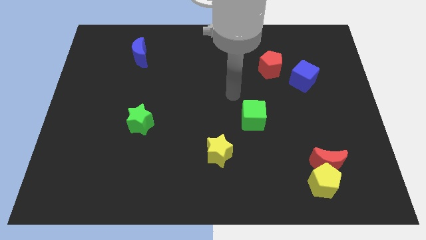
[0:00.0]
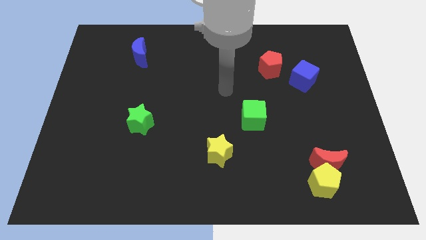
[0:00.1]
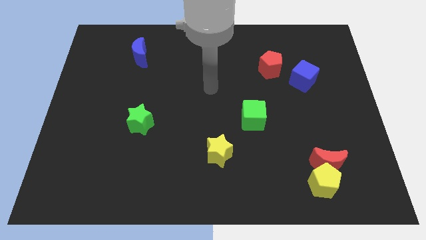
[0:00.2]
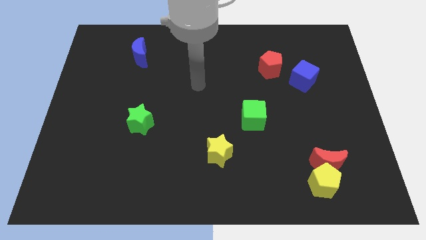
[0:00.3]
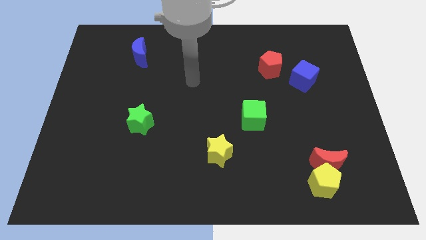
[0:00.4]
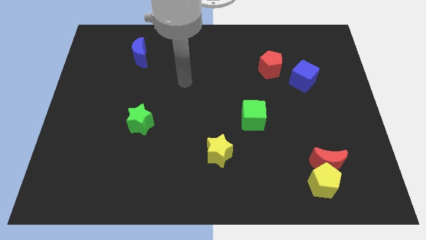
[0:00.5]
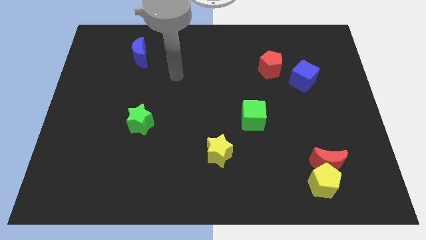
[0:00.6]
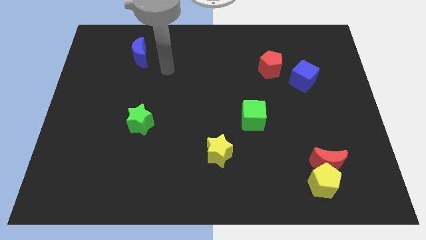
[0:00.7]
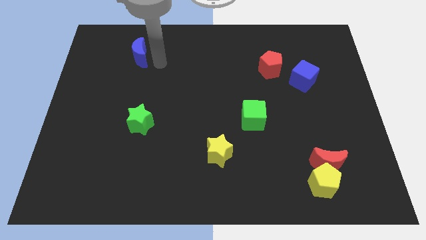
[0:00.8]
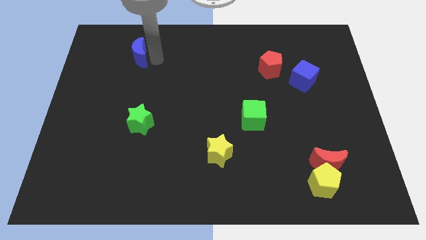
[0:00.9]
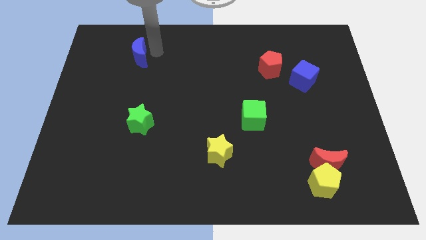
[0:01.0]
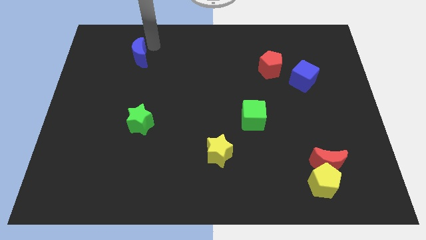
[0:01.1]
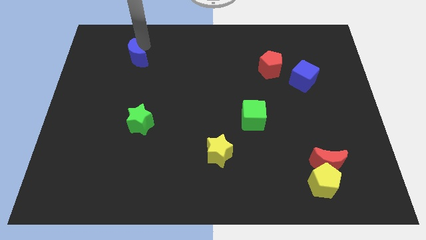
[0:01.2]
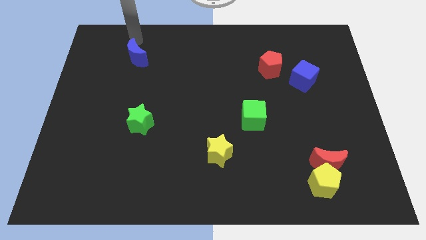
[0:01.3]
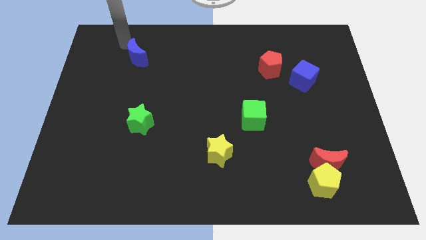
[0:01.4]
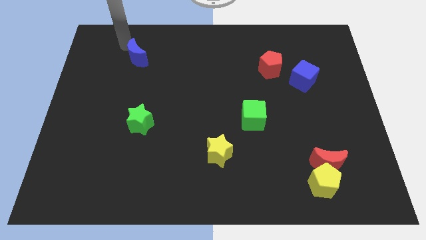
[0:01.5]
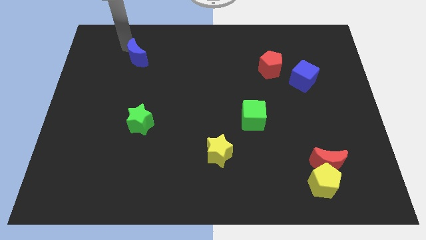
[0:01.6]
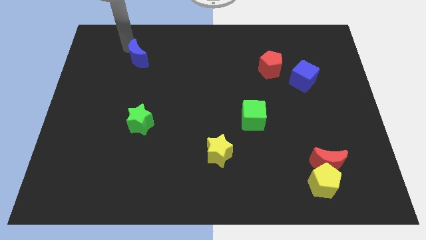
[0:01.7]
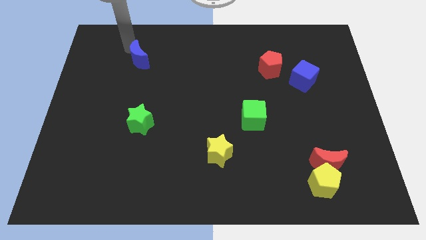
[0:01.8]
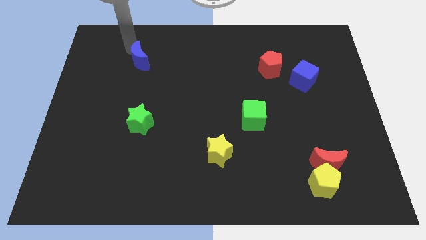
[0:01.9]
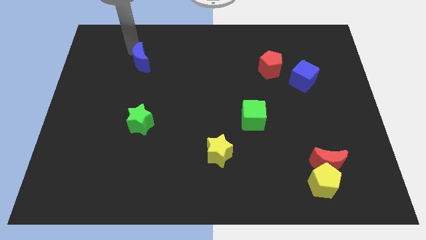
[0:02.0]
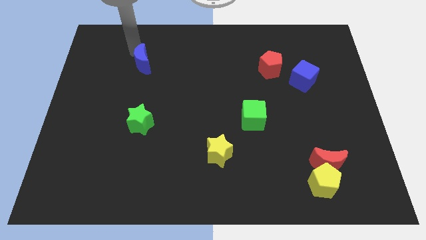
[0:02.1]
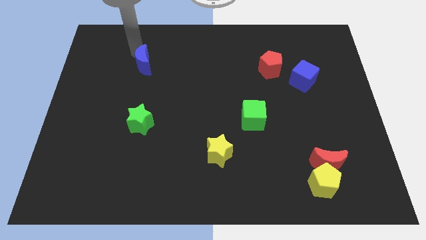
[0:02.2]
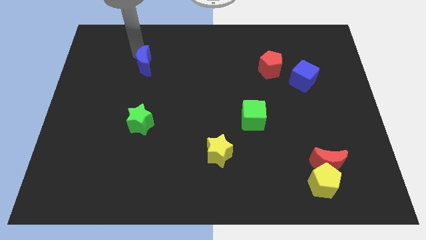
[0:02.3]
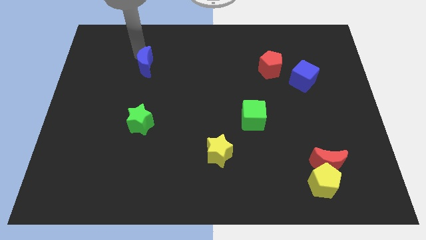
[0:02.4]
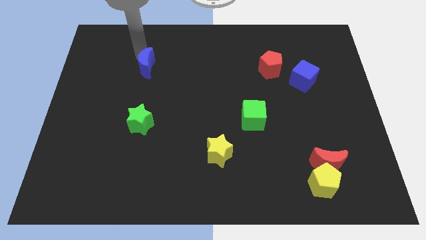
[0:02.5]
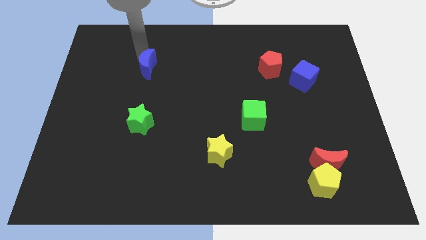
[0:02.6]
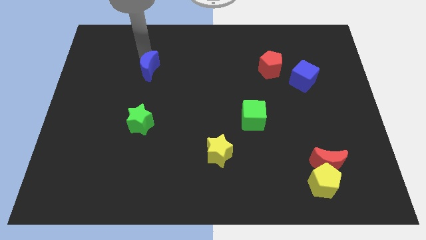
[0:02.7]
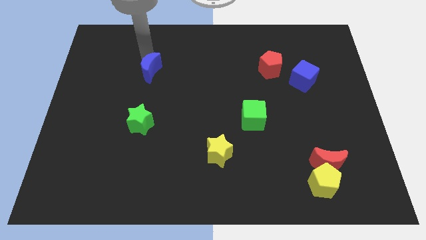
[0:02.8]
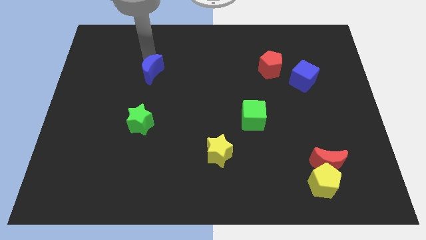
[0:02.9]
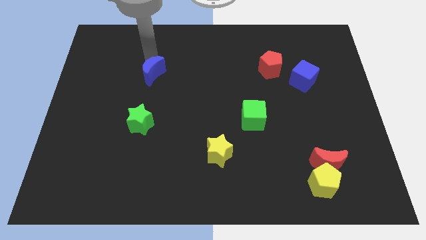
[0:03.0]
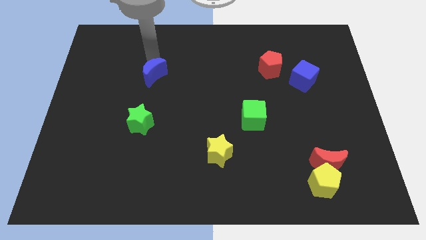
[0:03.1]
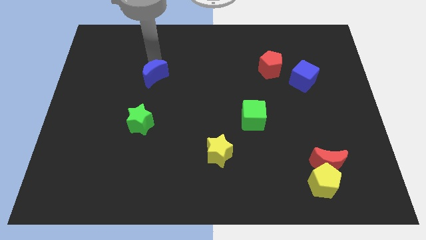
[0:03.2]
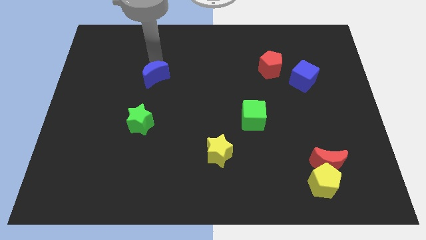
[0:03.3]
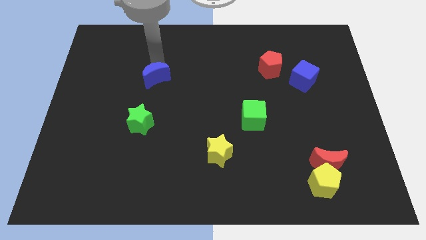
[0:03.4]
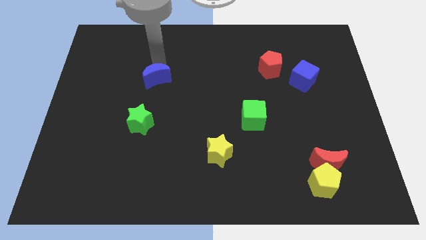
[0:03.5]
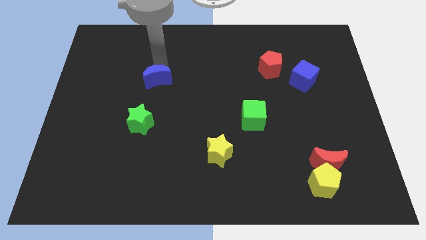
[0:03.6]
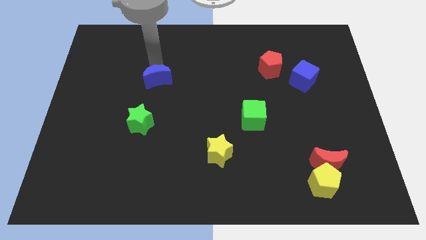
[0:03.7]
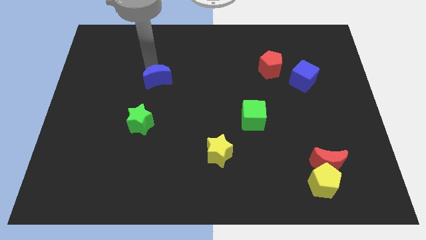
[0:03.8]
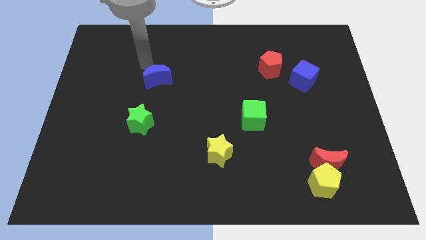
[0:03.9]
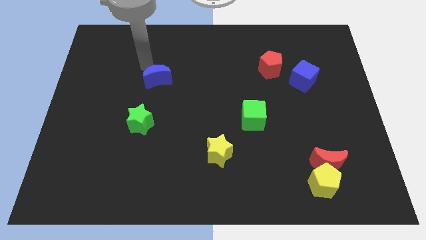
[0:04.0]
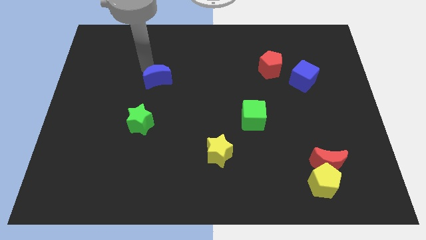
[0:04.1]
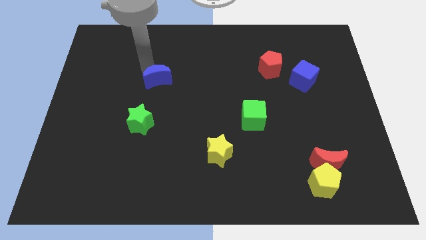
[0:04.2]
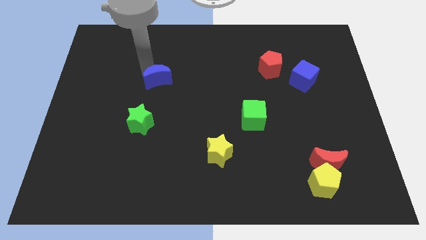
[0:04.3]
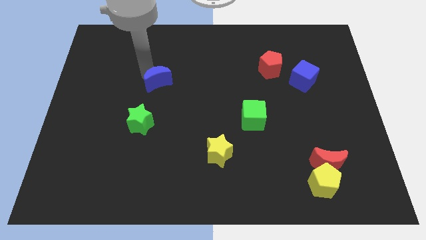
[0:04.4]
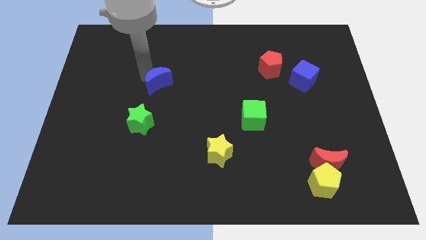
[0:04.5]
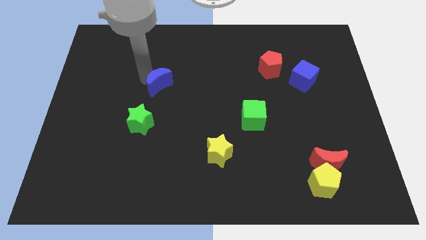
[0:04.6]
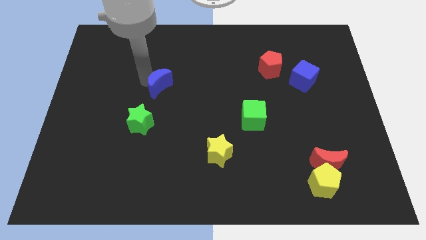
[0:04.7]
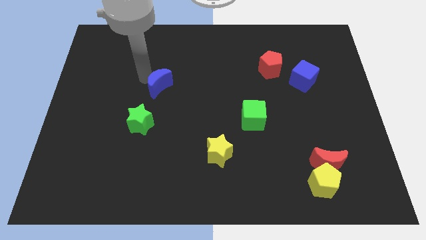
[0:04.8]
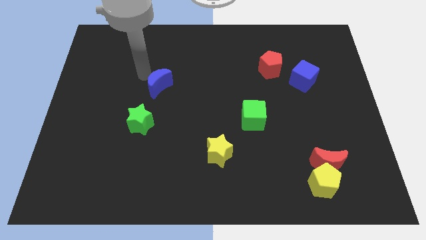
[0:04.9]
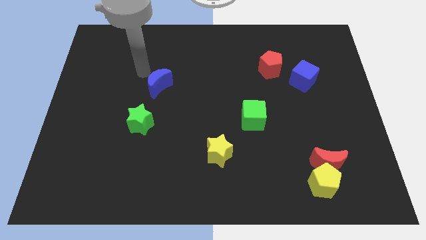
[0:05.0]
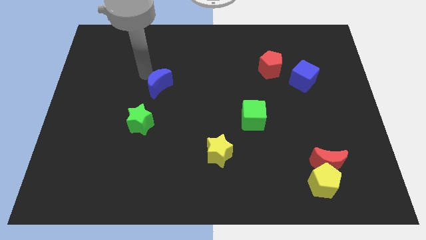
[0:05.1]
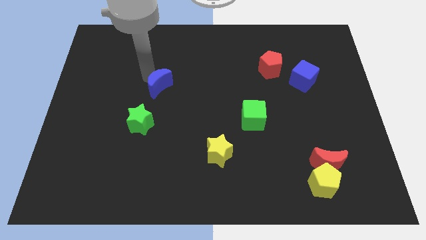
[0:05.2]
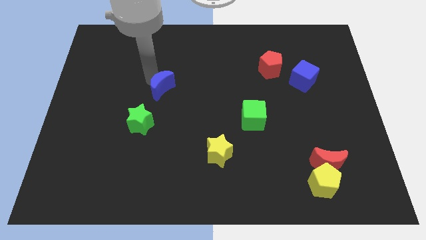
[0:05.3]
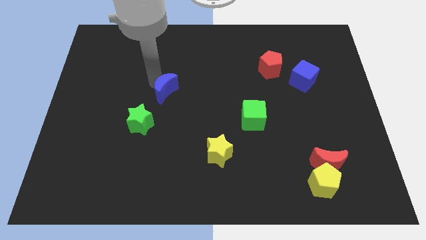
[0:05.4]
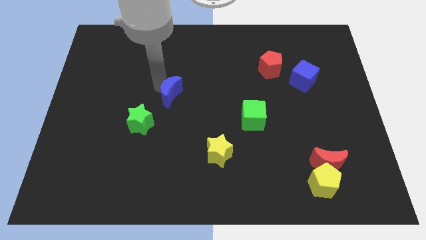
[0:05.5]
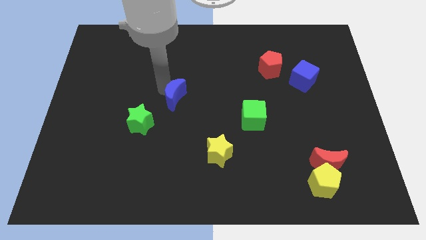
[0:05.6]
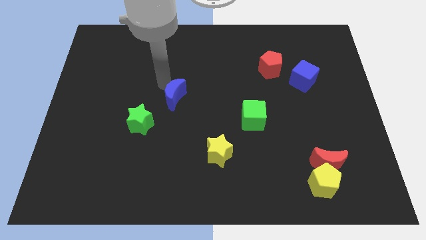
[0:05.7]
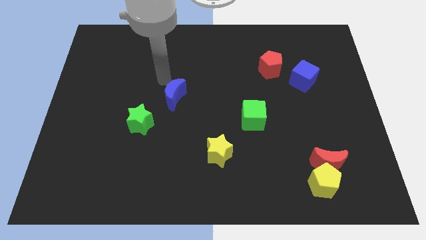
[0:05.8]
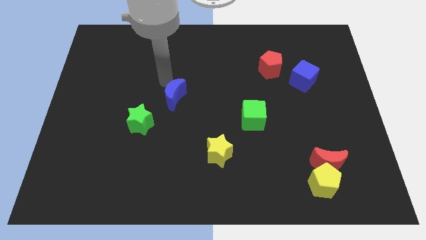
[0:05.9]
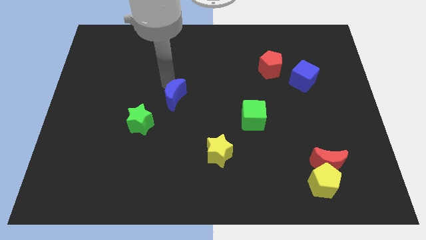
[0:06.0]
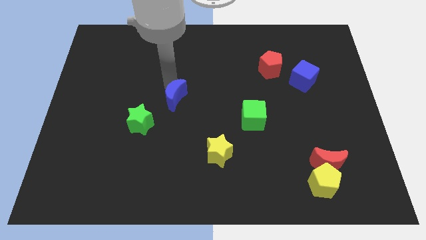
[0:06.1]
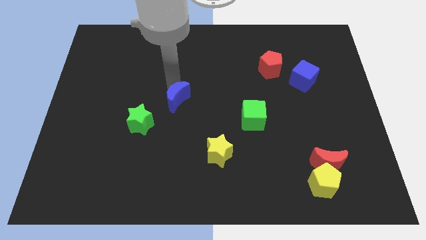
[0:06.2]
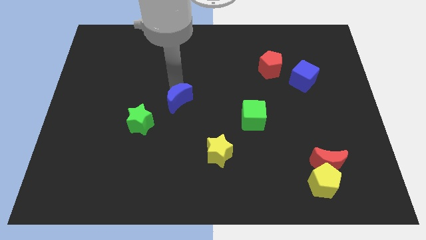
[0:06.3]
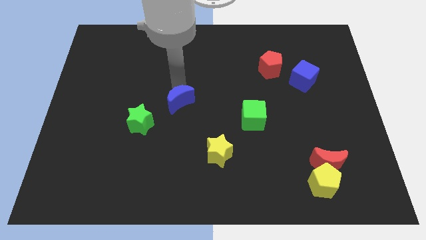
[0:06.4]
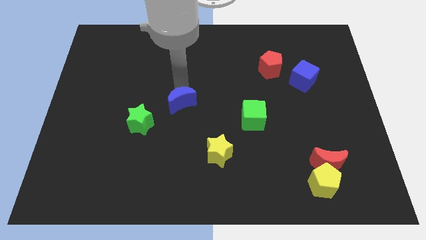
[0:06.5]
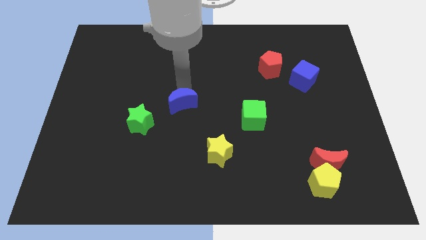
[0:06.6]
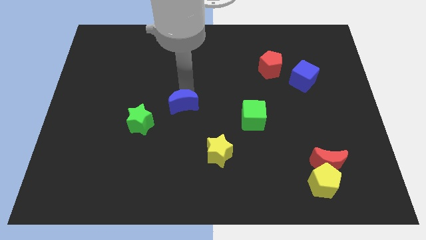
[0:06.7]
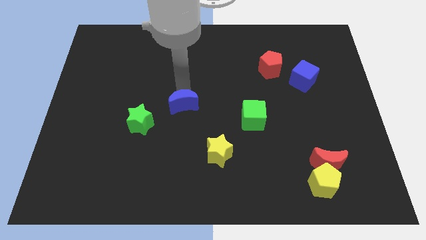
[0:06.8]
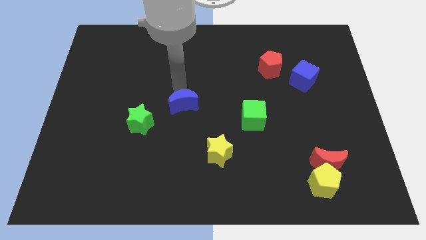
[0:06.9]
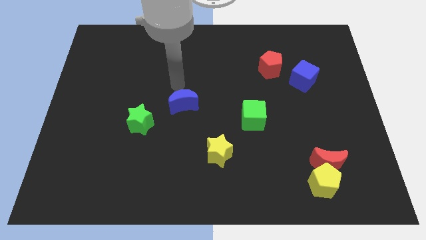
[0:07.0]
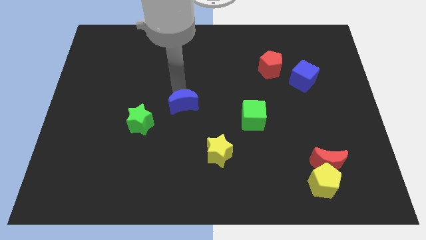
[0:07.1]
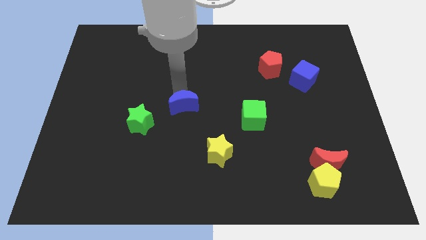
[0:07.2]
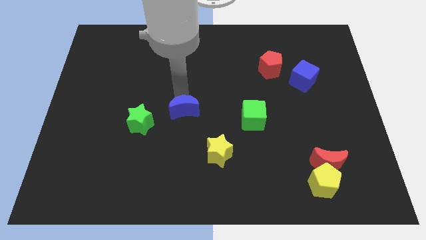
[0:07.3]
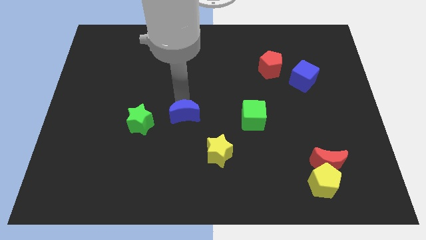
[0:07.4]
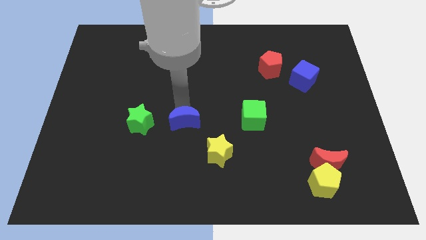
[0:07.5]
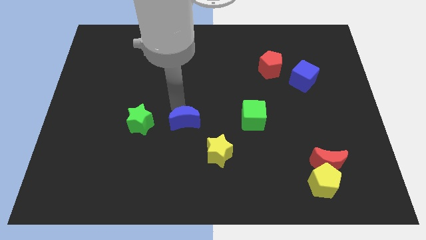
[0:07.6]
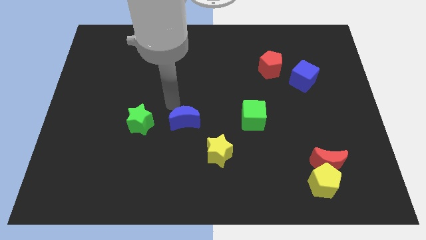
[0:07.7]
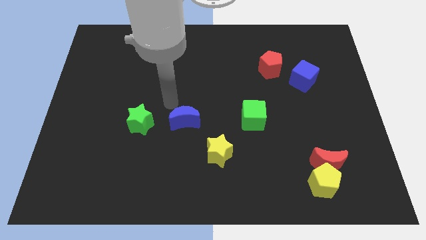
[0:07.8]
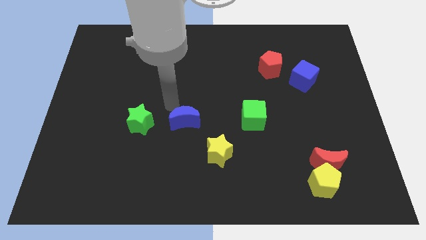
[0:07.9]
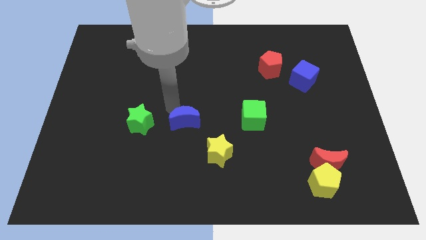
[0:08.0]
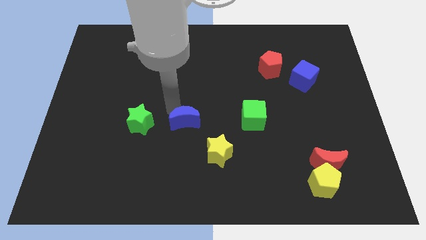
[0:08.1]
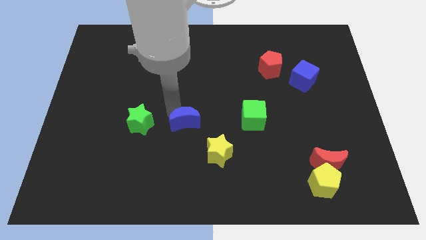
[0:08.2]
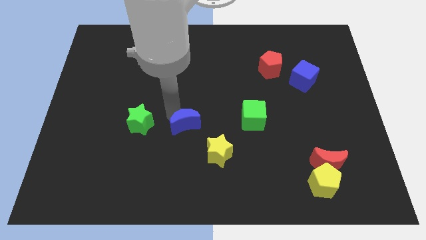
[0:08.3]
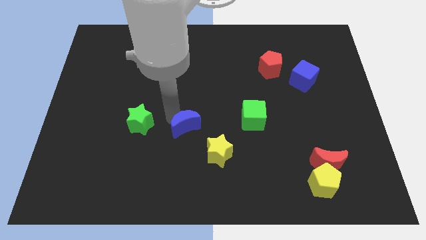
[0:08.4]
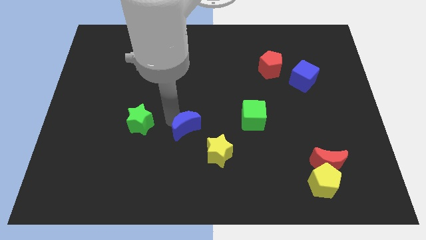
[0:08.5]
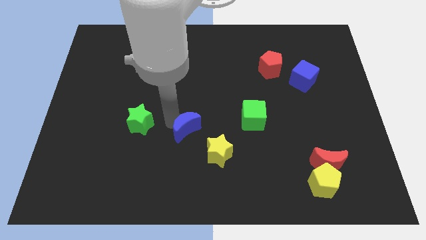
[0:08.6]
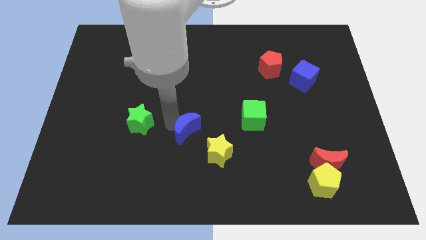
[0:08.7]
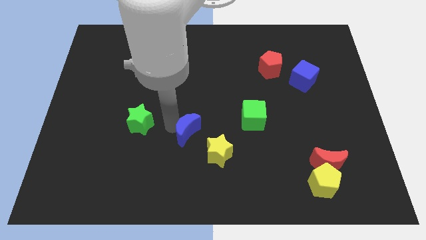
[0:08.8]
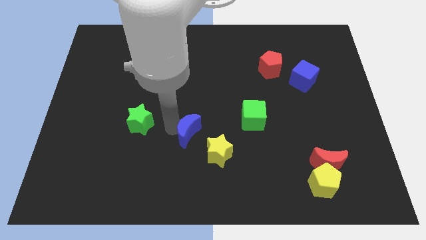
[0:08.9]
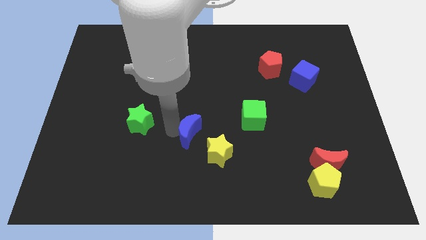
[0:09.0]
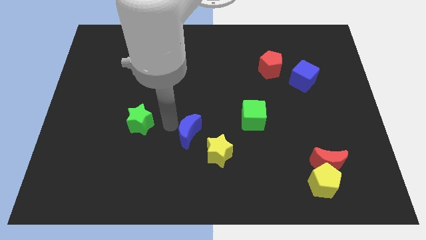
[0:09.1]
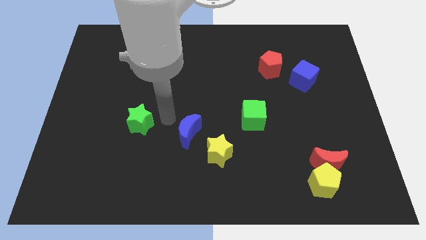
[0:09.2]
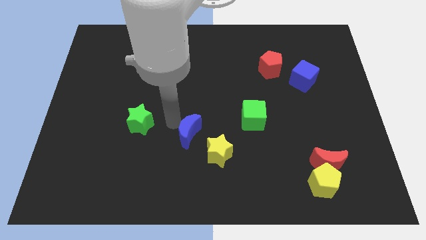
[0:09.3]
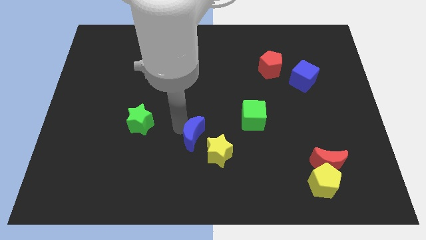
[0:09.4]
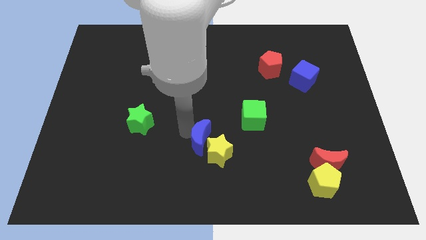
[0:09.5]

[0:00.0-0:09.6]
slide the blue moon towards the yellow star
